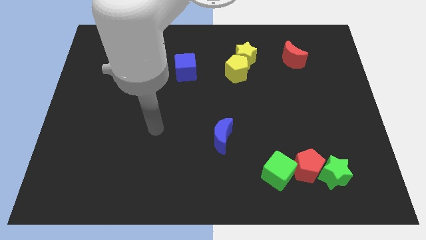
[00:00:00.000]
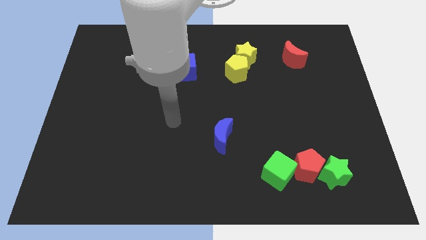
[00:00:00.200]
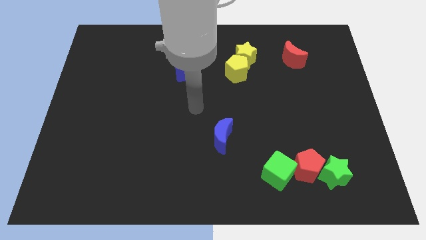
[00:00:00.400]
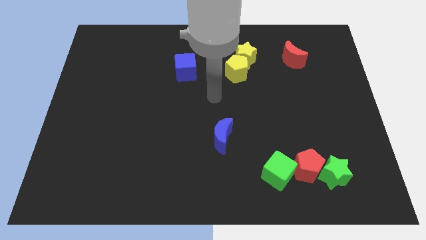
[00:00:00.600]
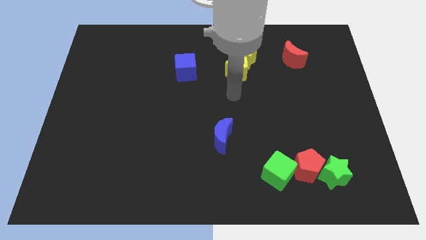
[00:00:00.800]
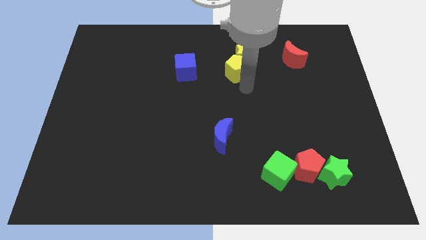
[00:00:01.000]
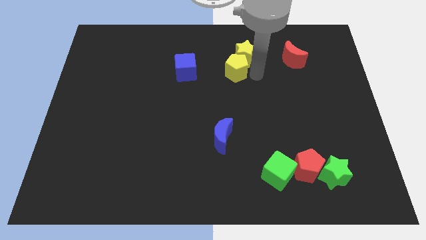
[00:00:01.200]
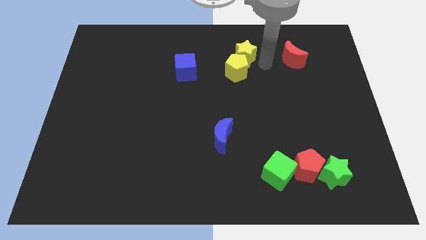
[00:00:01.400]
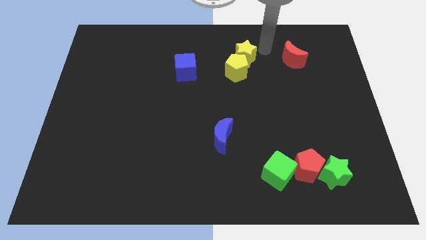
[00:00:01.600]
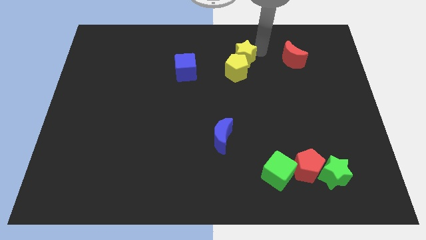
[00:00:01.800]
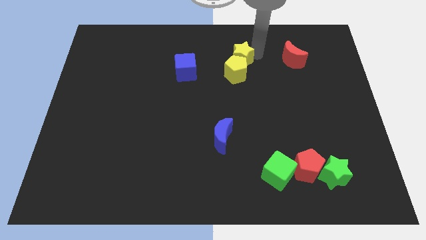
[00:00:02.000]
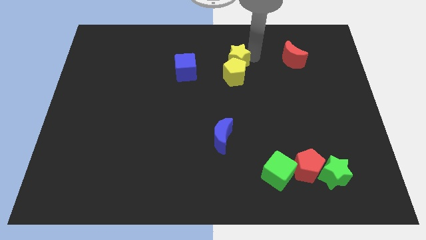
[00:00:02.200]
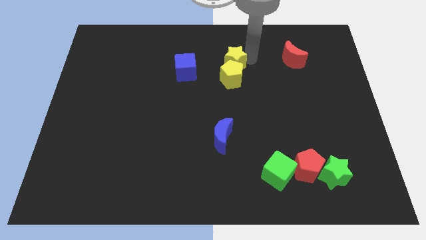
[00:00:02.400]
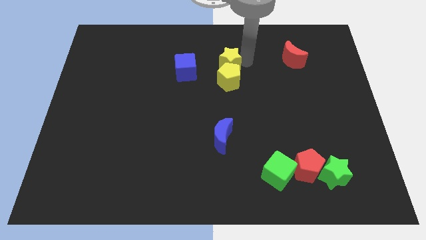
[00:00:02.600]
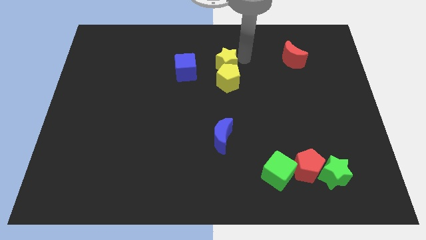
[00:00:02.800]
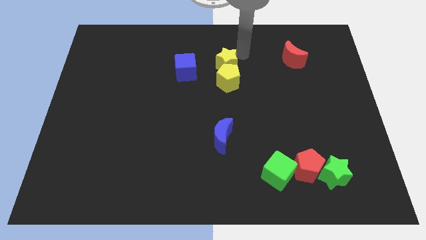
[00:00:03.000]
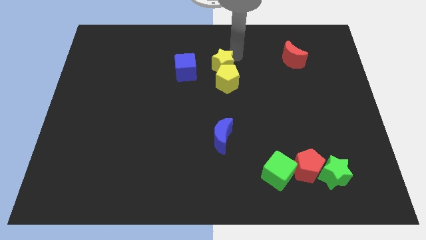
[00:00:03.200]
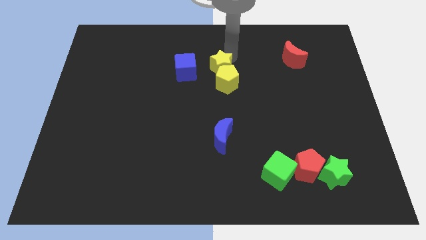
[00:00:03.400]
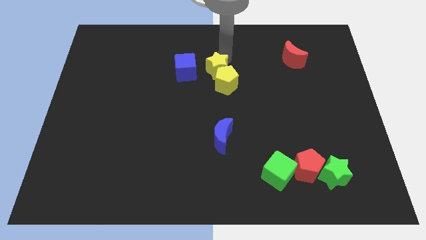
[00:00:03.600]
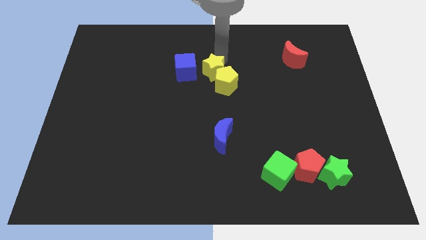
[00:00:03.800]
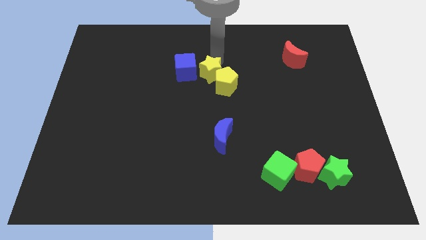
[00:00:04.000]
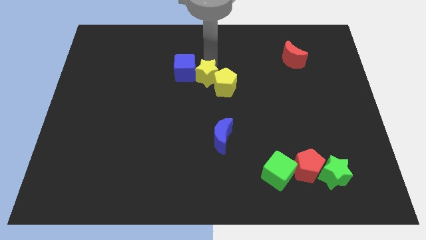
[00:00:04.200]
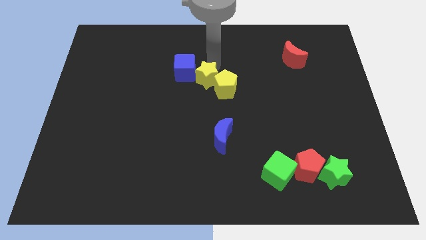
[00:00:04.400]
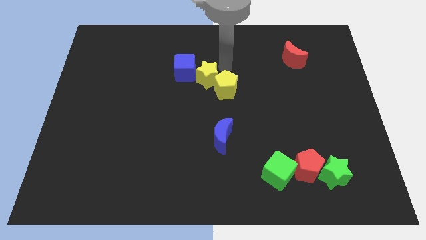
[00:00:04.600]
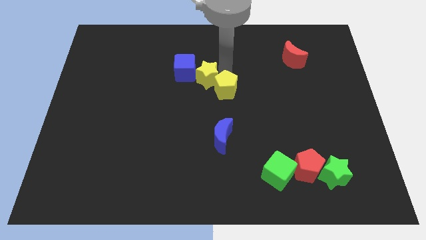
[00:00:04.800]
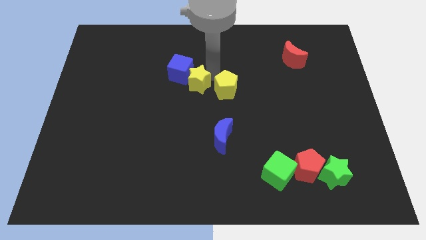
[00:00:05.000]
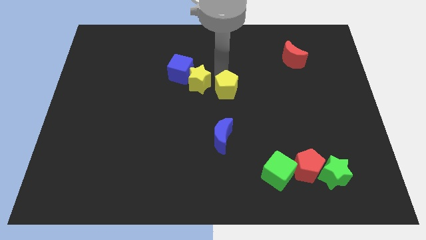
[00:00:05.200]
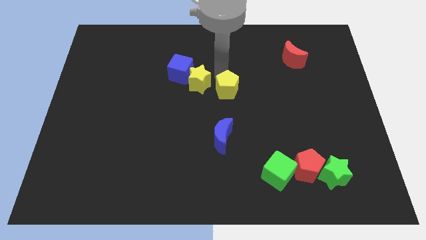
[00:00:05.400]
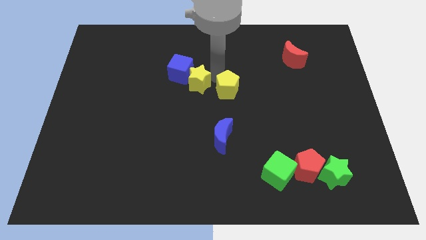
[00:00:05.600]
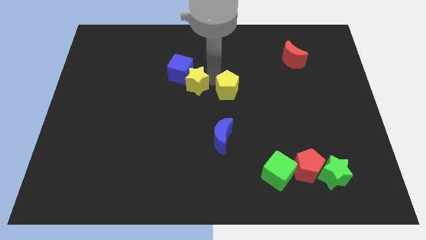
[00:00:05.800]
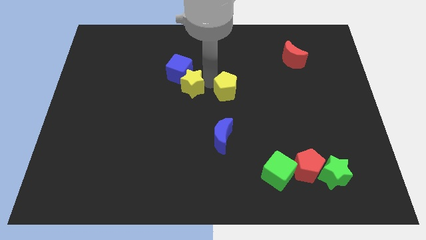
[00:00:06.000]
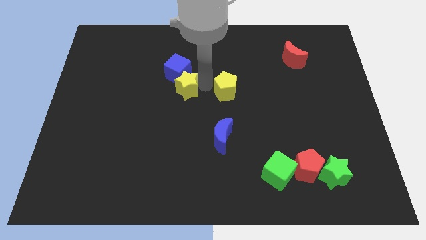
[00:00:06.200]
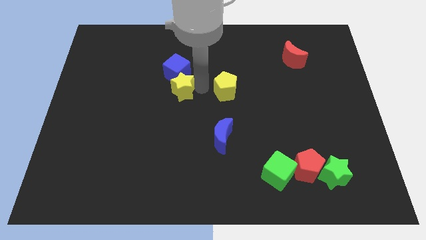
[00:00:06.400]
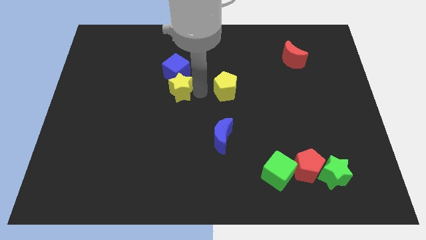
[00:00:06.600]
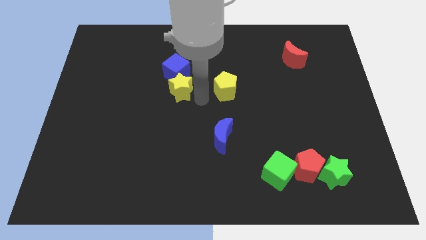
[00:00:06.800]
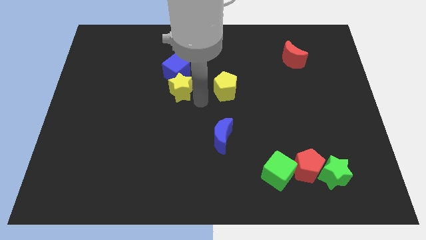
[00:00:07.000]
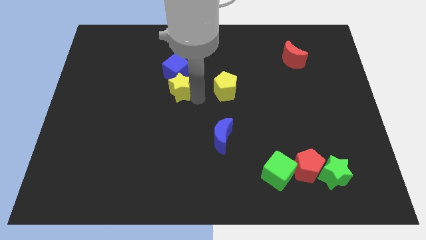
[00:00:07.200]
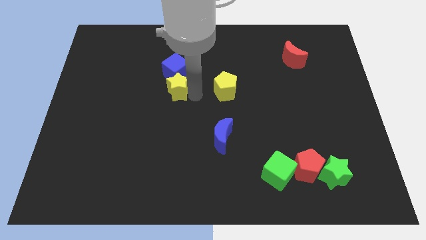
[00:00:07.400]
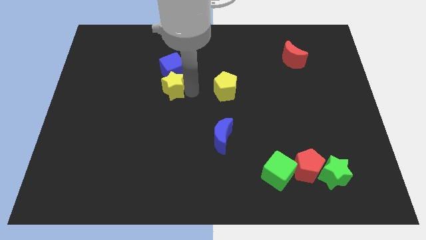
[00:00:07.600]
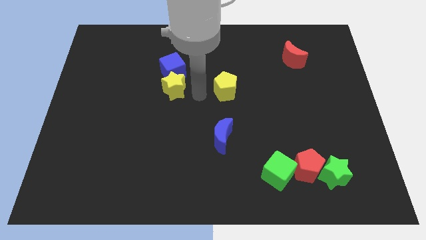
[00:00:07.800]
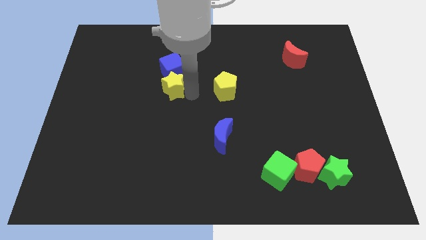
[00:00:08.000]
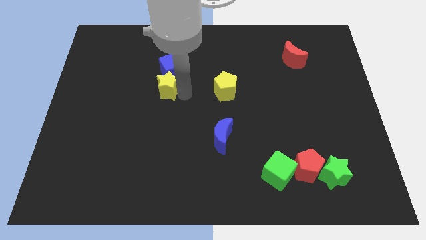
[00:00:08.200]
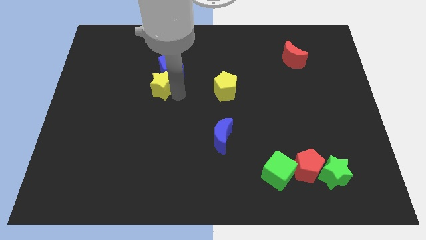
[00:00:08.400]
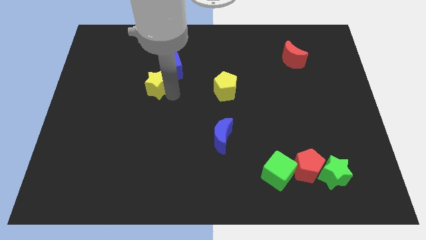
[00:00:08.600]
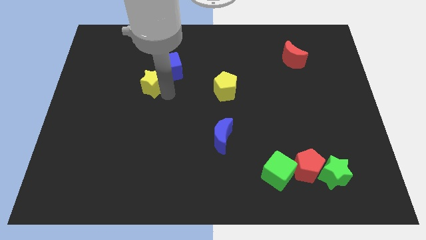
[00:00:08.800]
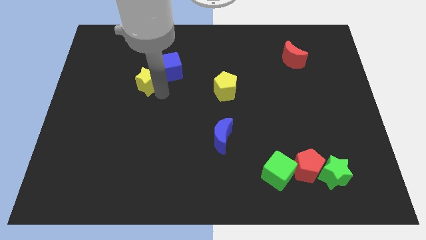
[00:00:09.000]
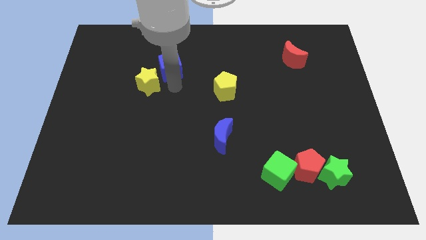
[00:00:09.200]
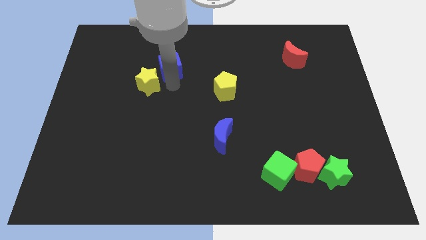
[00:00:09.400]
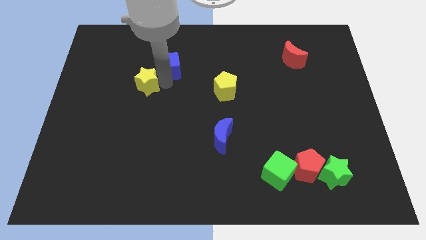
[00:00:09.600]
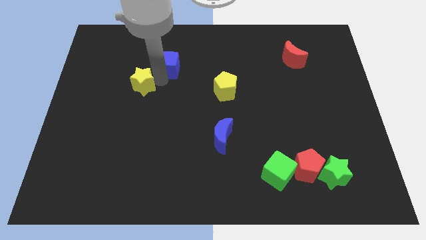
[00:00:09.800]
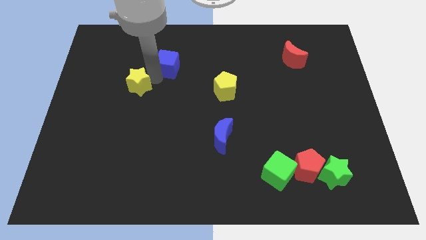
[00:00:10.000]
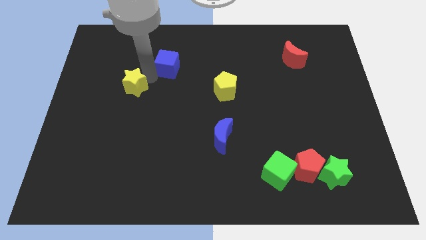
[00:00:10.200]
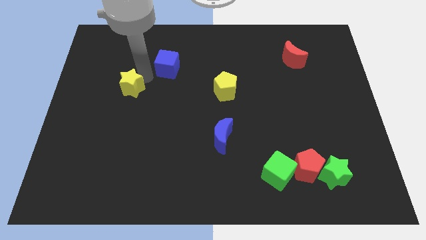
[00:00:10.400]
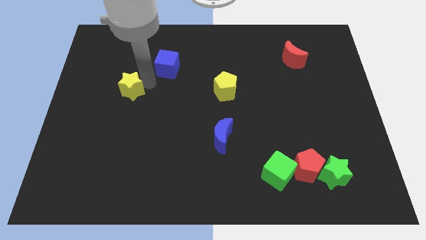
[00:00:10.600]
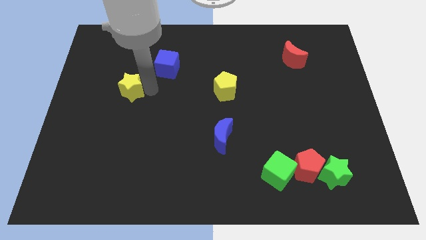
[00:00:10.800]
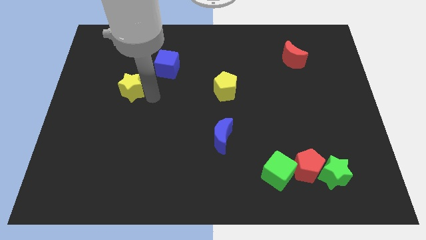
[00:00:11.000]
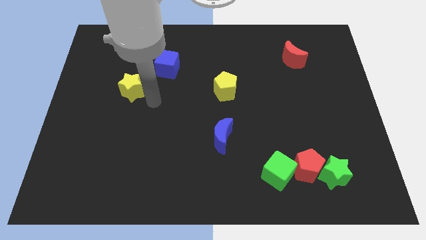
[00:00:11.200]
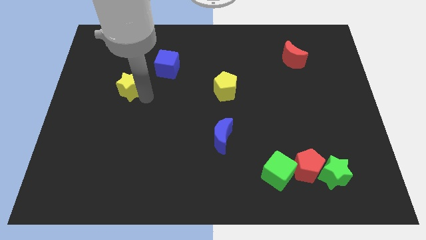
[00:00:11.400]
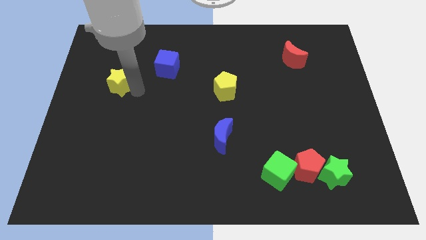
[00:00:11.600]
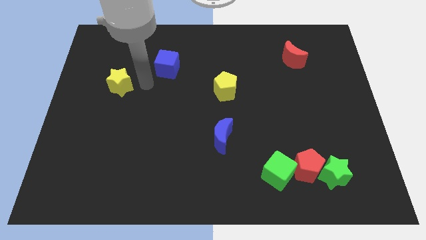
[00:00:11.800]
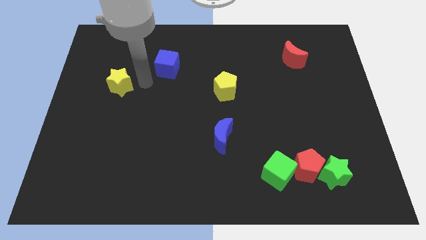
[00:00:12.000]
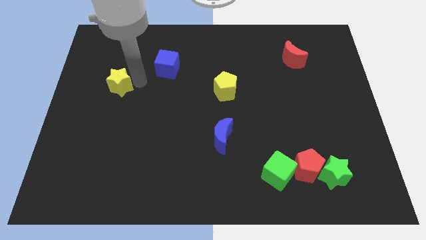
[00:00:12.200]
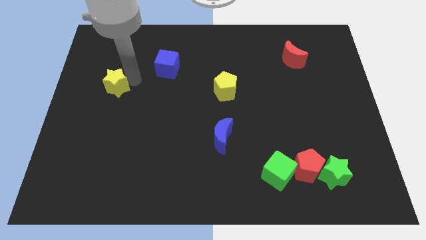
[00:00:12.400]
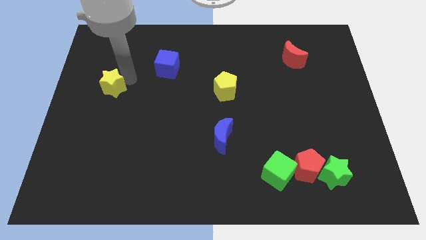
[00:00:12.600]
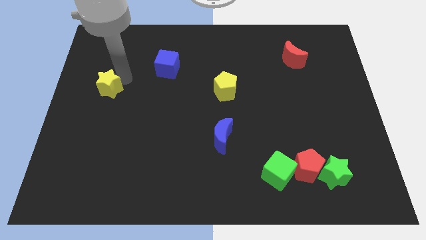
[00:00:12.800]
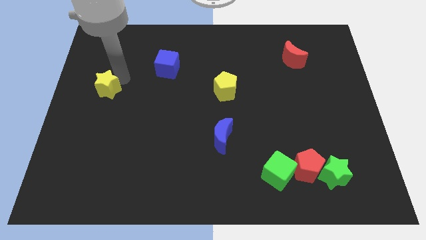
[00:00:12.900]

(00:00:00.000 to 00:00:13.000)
slide the yellow star to the left side of the board

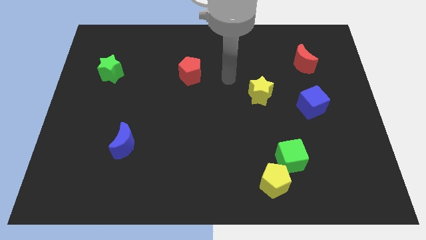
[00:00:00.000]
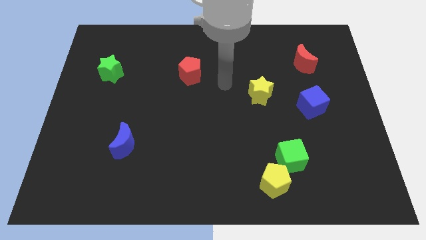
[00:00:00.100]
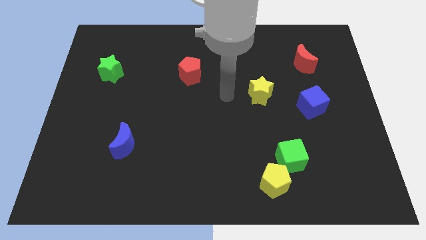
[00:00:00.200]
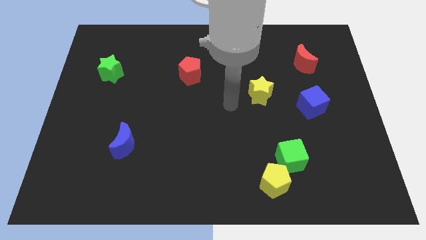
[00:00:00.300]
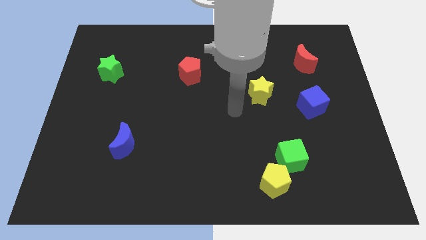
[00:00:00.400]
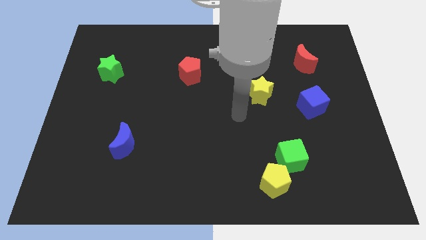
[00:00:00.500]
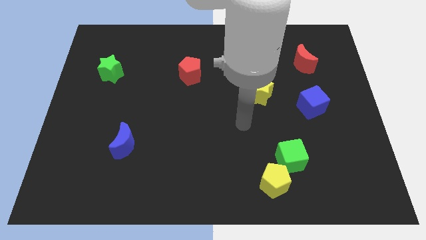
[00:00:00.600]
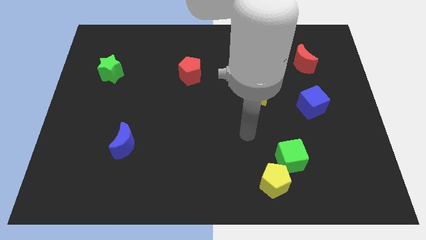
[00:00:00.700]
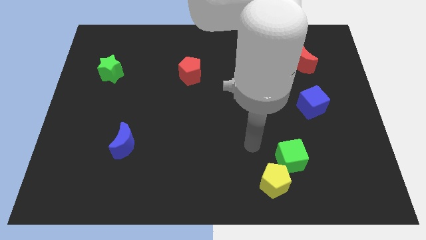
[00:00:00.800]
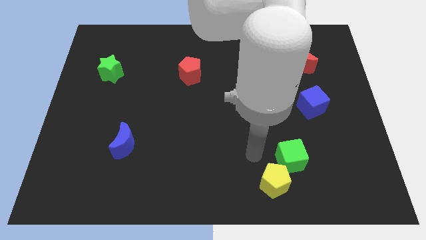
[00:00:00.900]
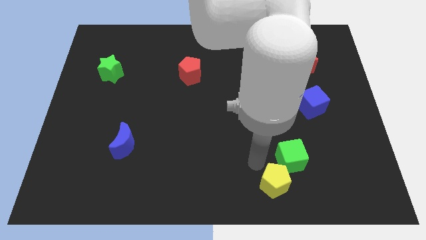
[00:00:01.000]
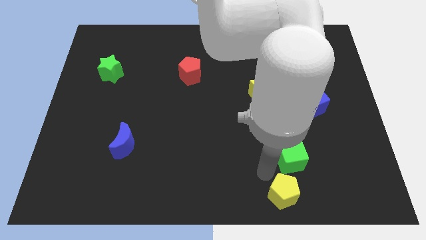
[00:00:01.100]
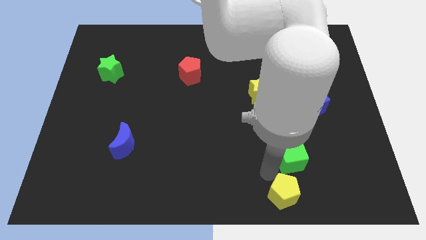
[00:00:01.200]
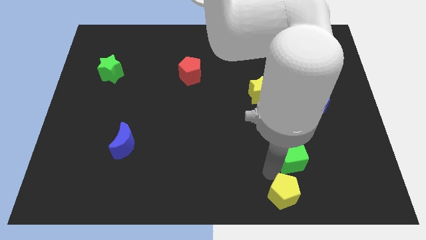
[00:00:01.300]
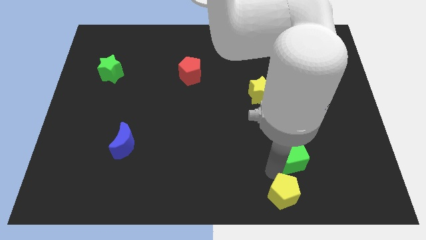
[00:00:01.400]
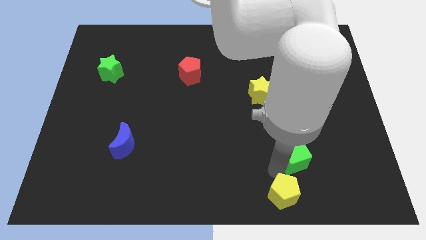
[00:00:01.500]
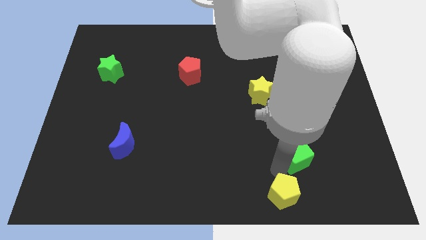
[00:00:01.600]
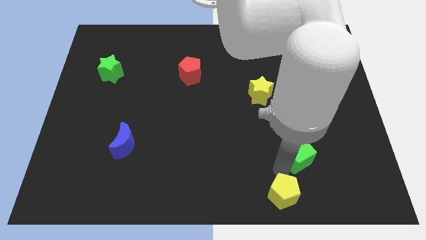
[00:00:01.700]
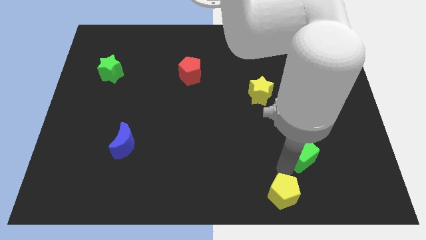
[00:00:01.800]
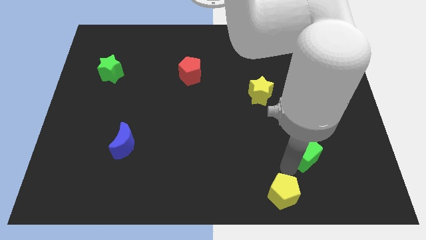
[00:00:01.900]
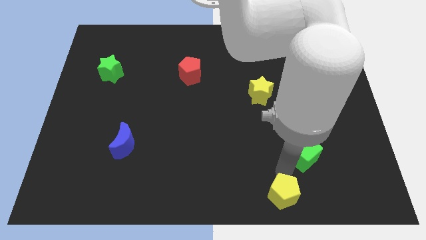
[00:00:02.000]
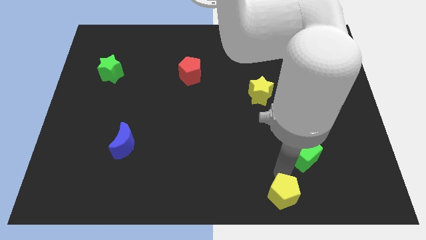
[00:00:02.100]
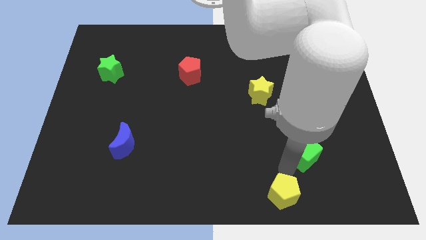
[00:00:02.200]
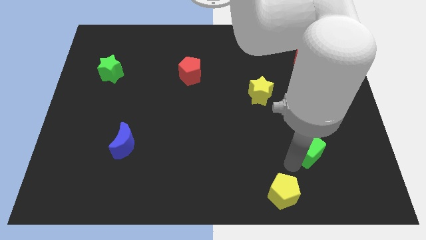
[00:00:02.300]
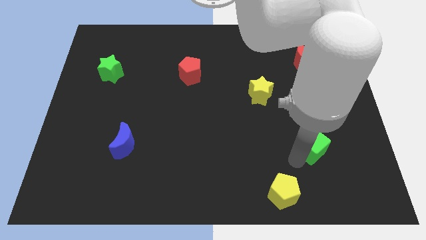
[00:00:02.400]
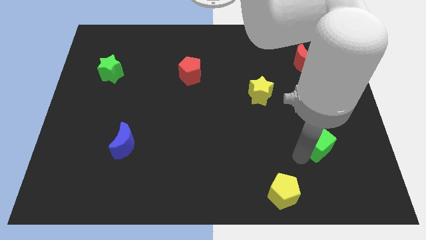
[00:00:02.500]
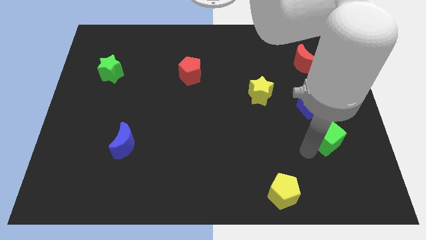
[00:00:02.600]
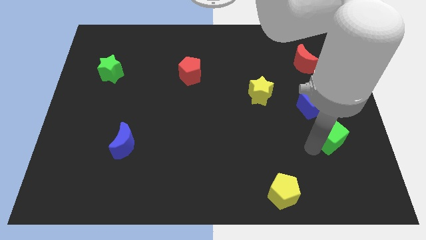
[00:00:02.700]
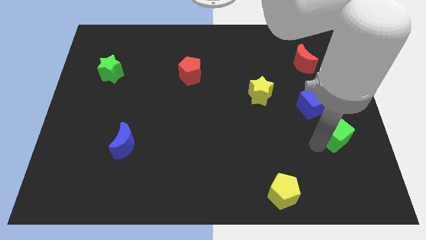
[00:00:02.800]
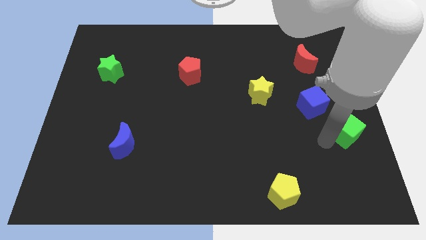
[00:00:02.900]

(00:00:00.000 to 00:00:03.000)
slide the green cube to the center right
